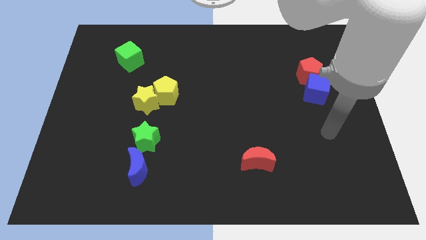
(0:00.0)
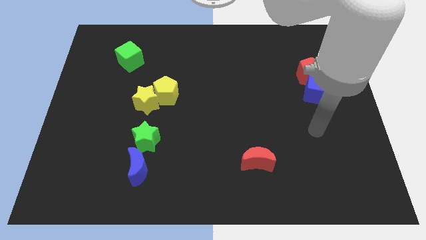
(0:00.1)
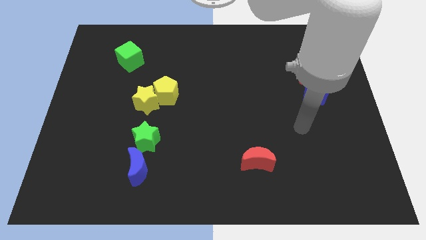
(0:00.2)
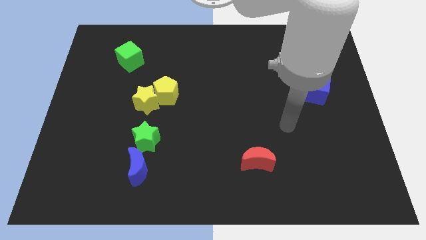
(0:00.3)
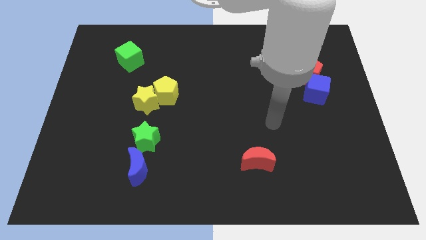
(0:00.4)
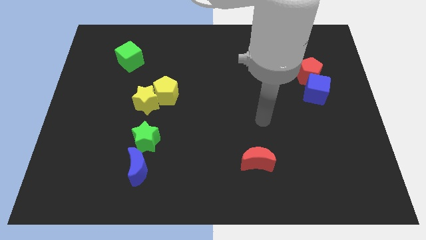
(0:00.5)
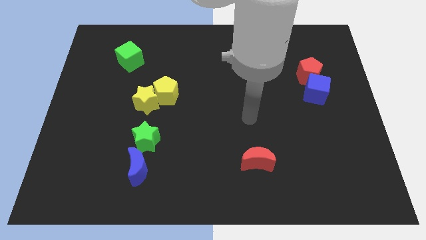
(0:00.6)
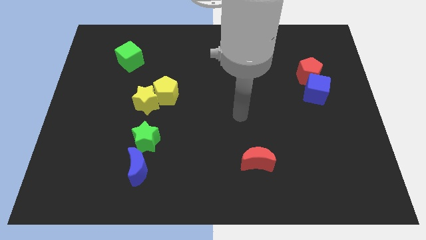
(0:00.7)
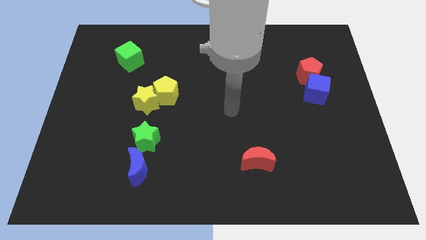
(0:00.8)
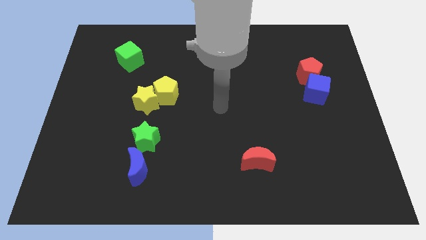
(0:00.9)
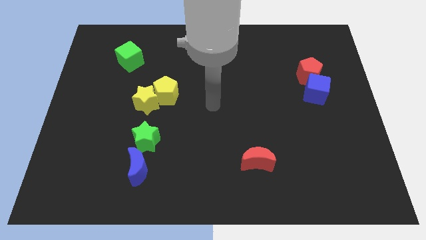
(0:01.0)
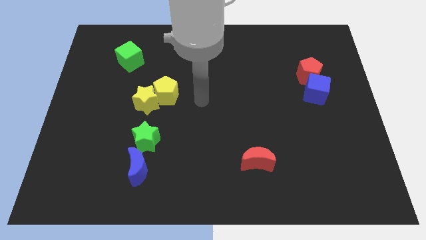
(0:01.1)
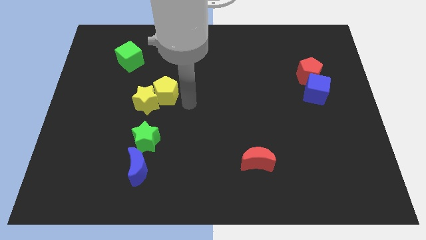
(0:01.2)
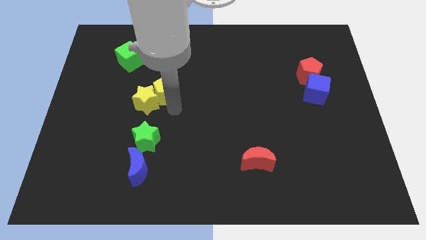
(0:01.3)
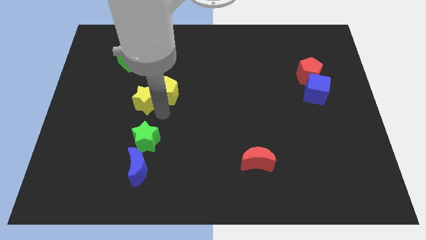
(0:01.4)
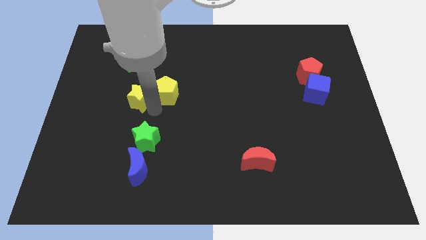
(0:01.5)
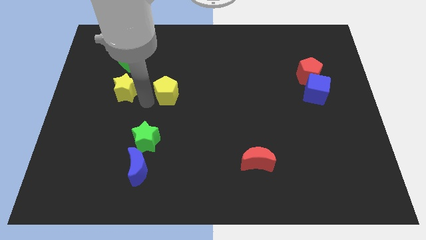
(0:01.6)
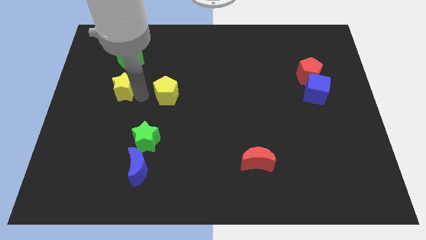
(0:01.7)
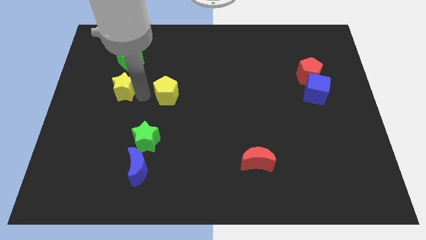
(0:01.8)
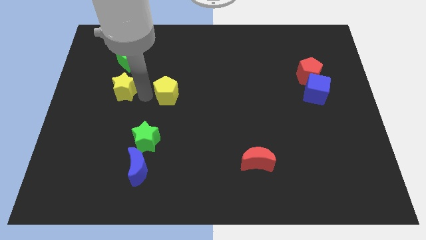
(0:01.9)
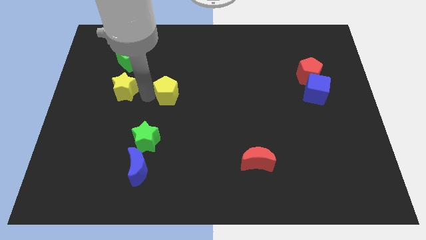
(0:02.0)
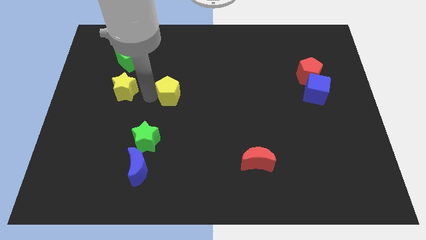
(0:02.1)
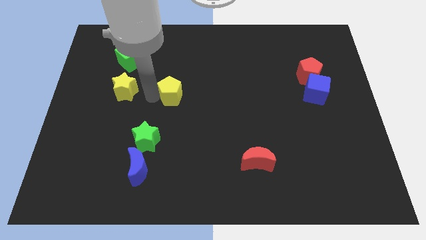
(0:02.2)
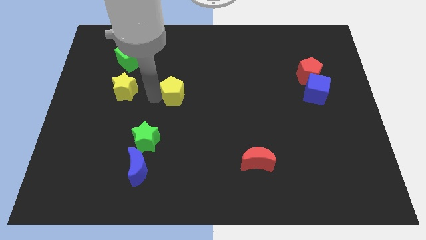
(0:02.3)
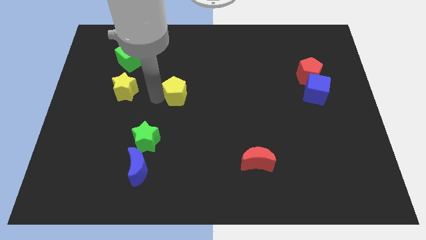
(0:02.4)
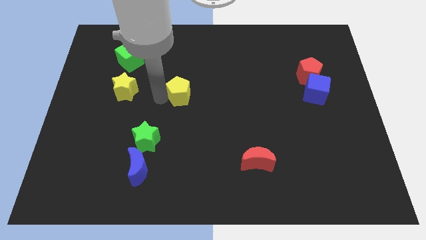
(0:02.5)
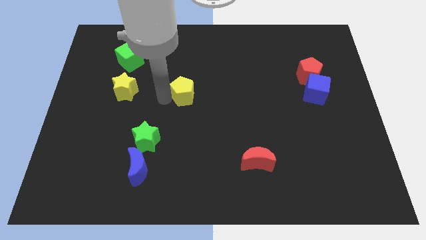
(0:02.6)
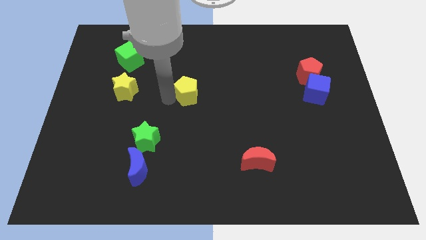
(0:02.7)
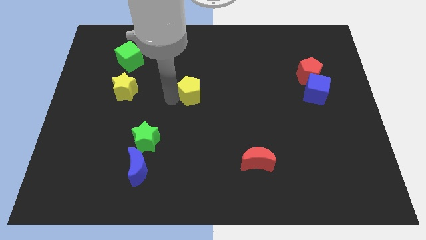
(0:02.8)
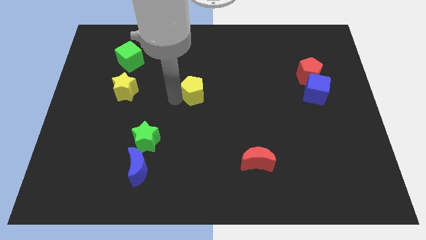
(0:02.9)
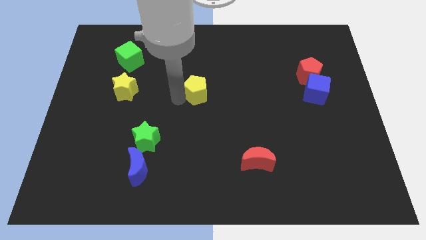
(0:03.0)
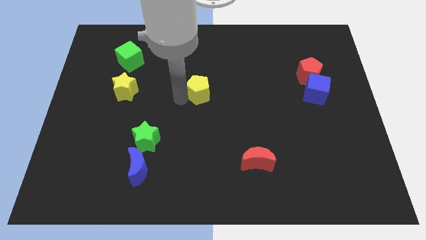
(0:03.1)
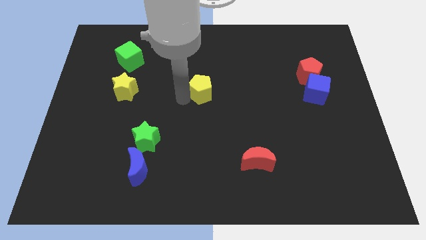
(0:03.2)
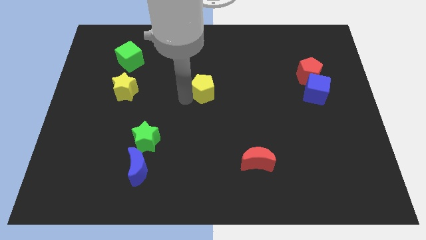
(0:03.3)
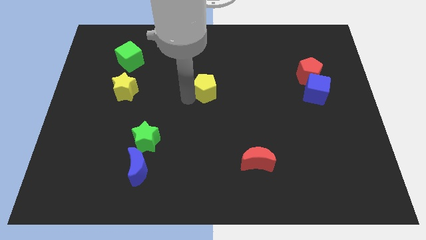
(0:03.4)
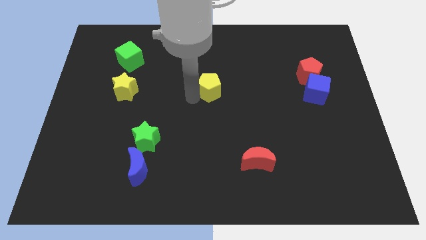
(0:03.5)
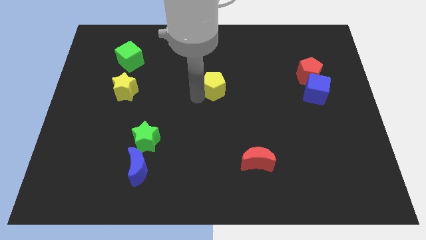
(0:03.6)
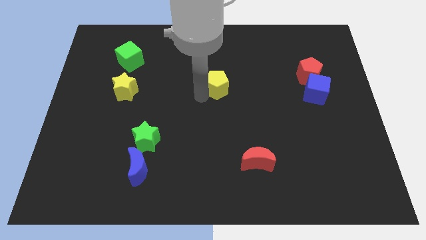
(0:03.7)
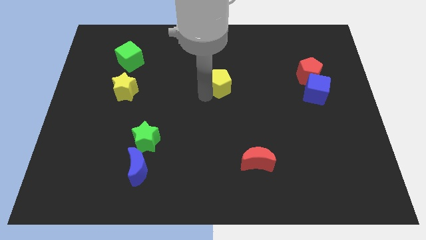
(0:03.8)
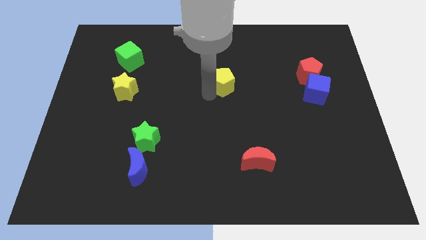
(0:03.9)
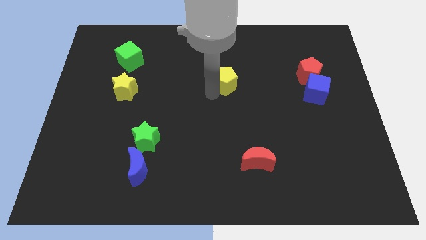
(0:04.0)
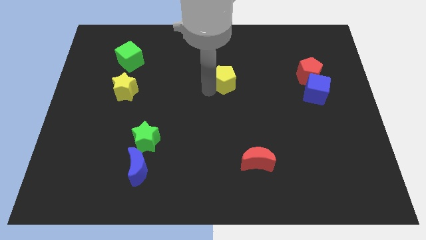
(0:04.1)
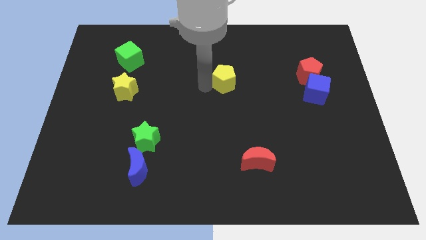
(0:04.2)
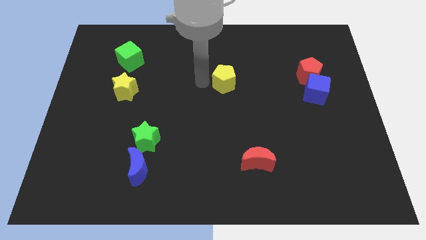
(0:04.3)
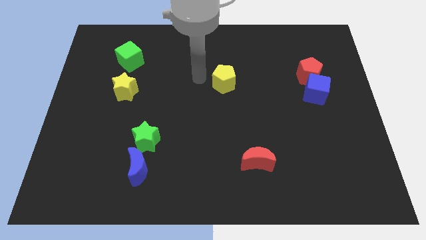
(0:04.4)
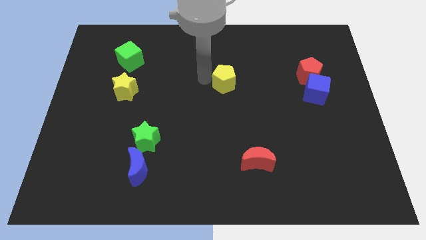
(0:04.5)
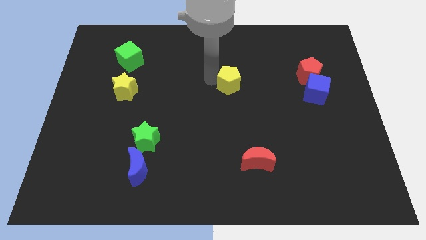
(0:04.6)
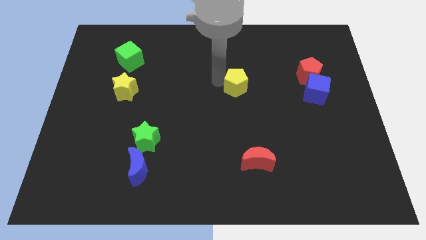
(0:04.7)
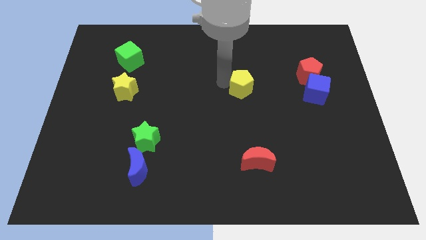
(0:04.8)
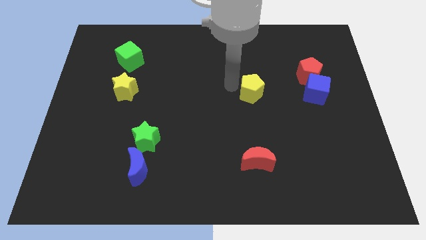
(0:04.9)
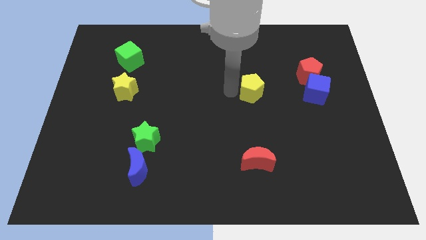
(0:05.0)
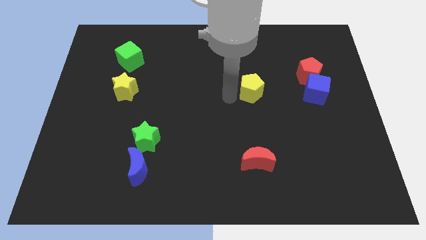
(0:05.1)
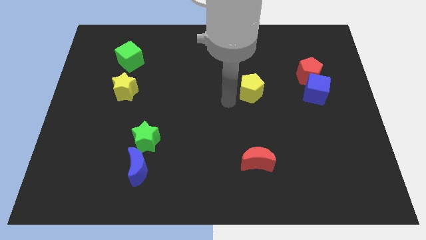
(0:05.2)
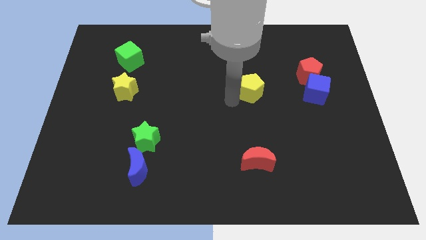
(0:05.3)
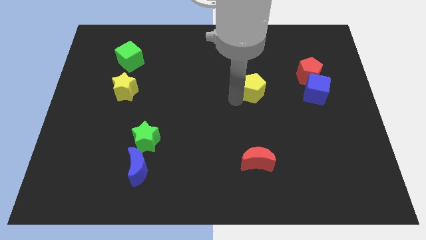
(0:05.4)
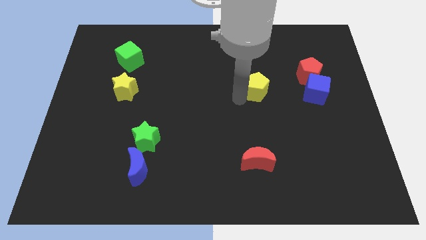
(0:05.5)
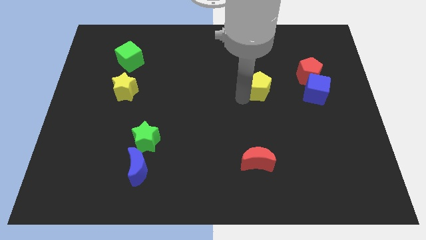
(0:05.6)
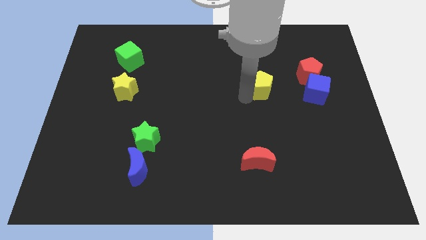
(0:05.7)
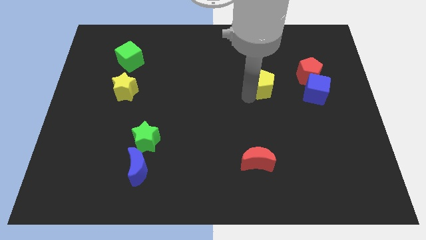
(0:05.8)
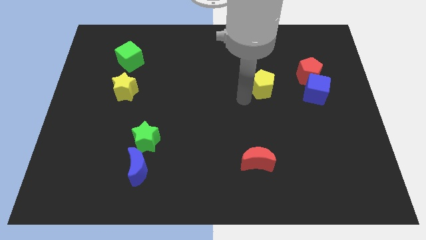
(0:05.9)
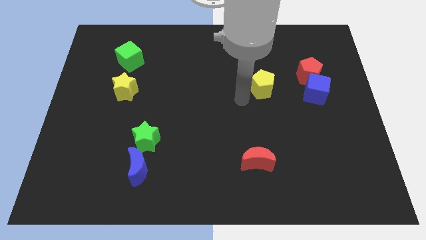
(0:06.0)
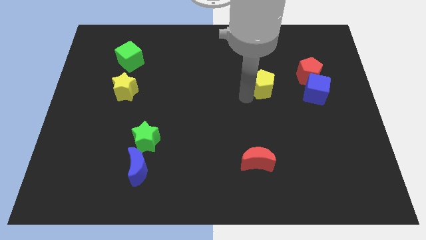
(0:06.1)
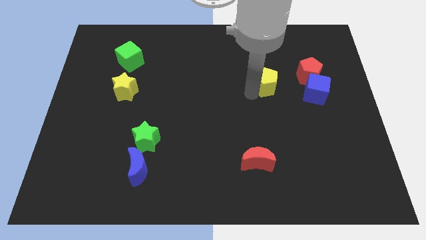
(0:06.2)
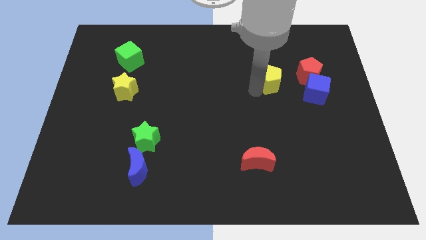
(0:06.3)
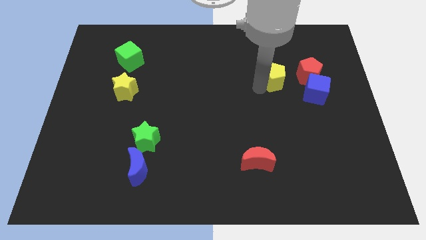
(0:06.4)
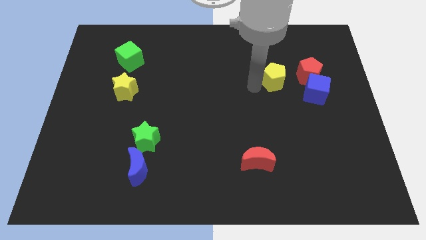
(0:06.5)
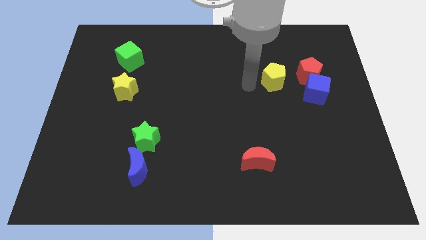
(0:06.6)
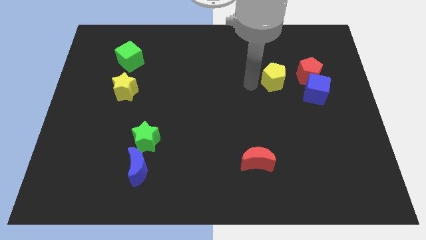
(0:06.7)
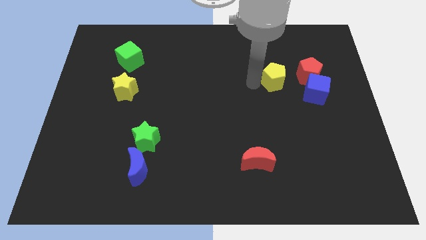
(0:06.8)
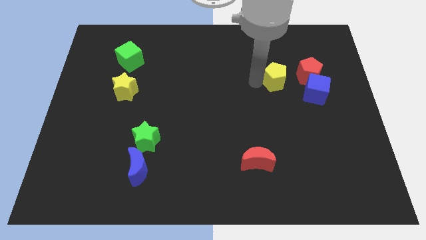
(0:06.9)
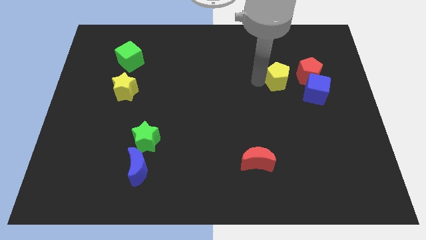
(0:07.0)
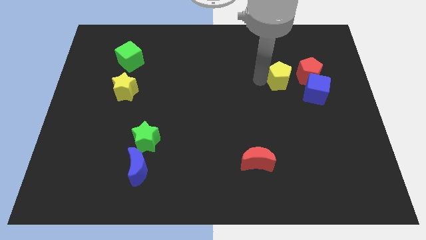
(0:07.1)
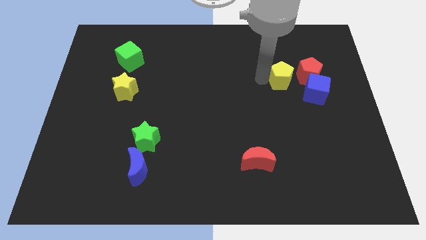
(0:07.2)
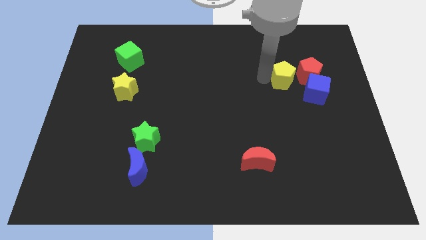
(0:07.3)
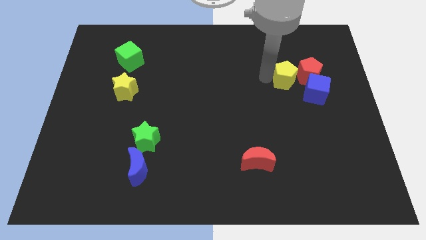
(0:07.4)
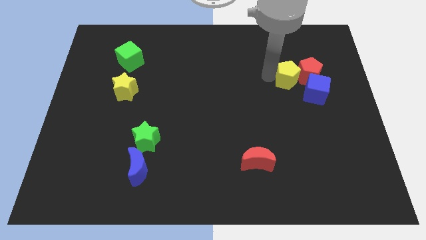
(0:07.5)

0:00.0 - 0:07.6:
put the yellow pentagon towards the red pentagon
